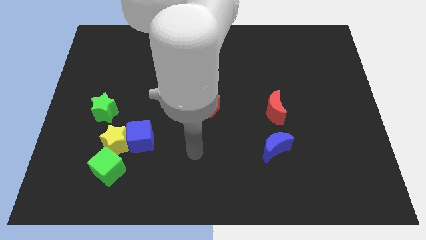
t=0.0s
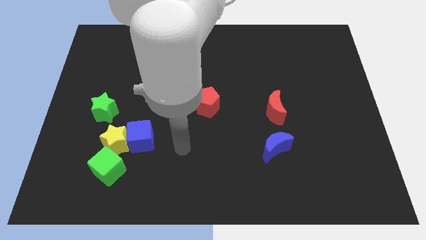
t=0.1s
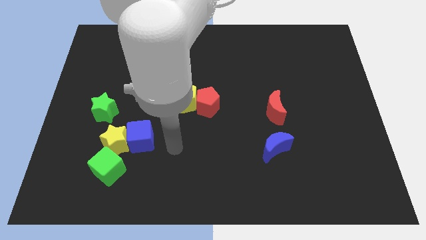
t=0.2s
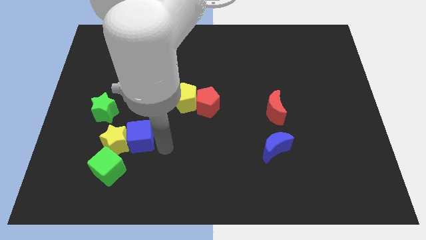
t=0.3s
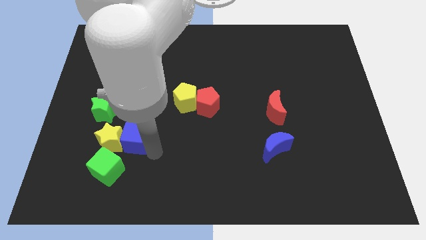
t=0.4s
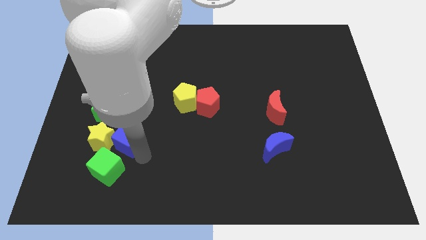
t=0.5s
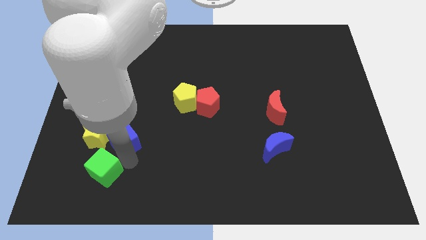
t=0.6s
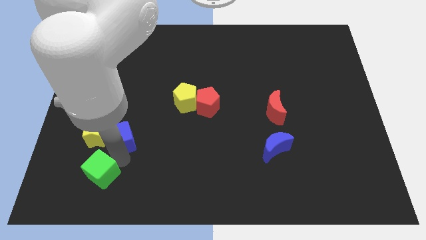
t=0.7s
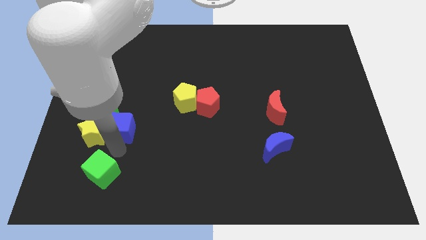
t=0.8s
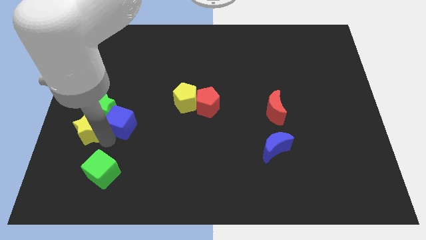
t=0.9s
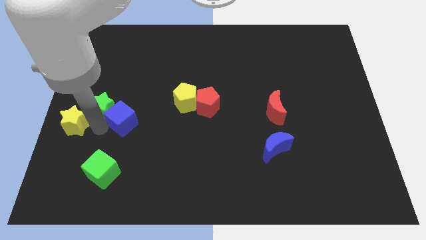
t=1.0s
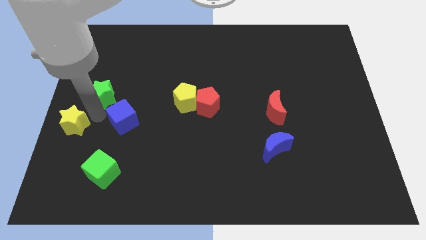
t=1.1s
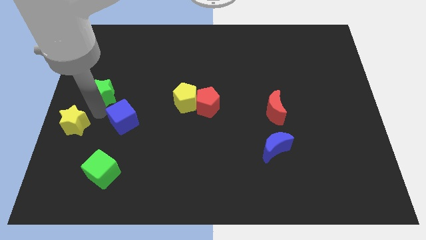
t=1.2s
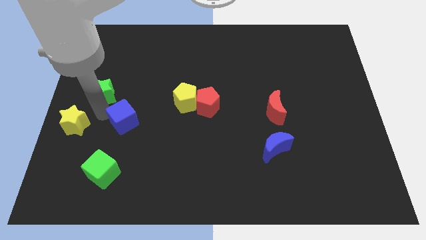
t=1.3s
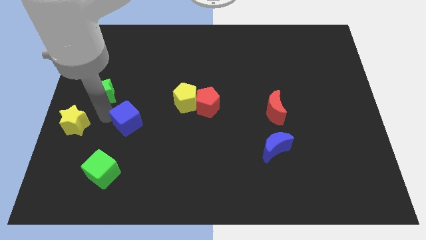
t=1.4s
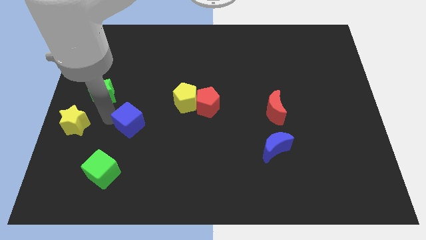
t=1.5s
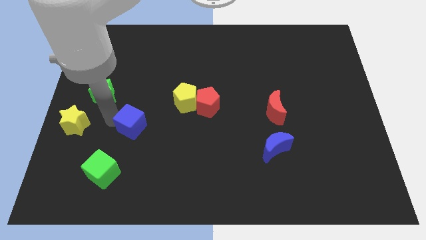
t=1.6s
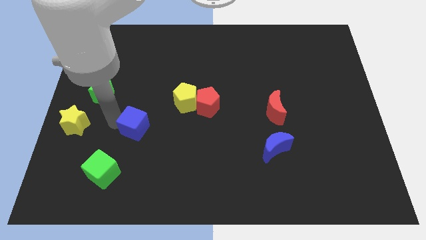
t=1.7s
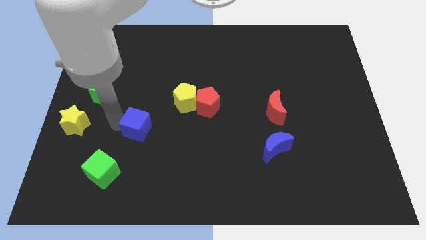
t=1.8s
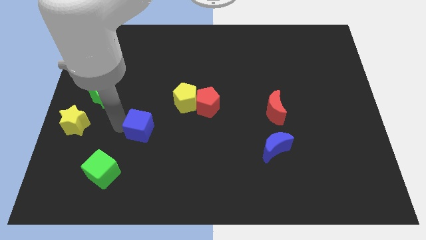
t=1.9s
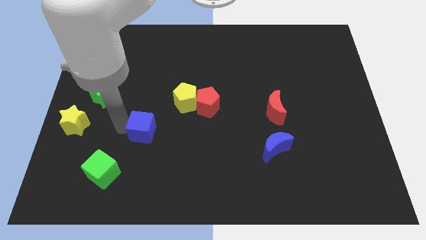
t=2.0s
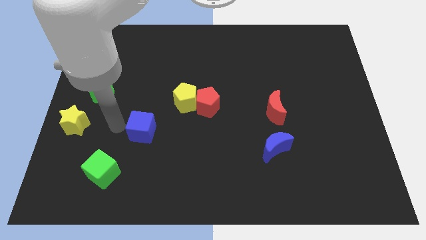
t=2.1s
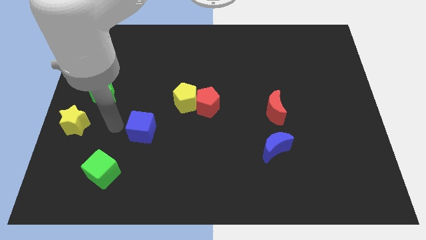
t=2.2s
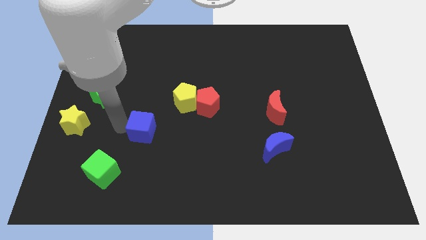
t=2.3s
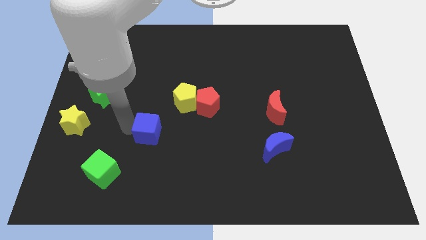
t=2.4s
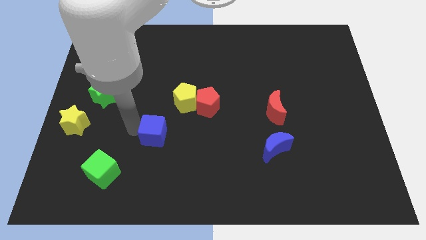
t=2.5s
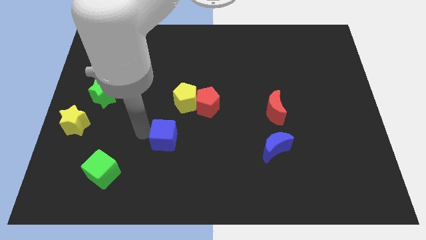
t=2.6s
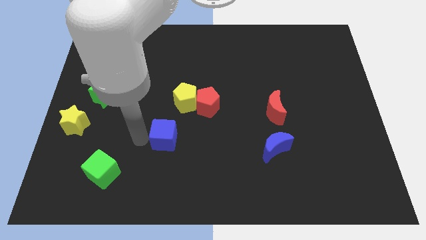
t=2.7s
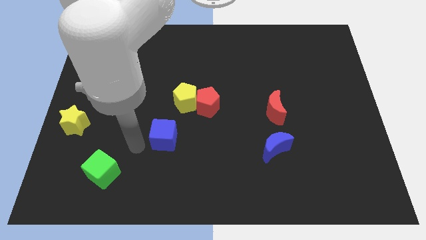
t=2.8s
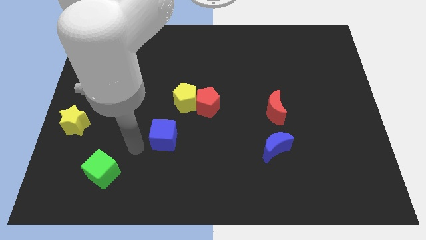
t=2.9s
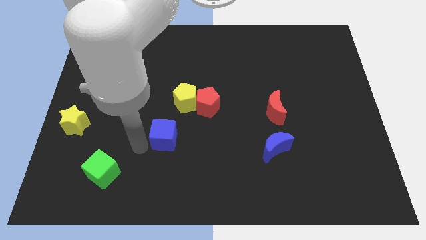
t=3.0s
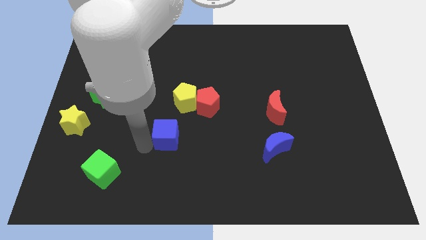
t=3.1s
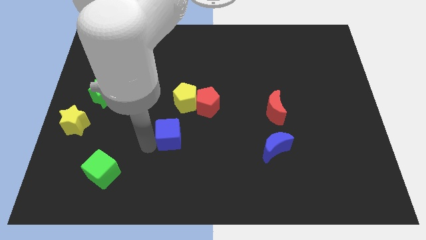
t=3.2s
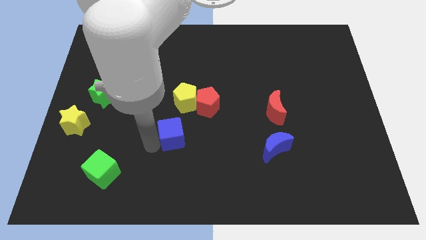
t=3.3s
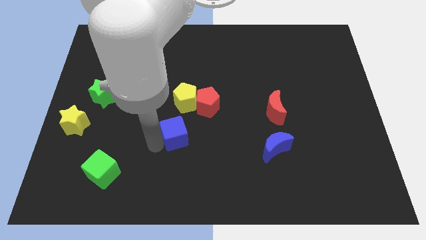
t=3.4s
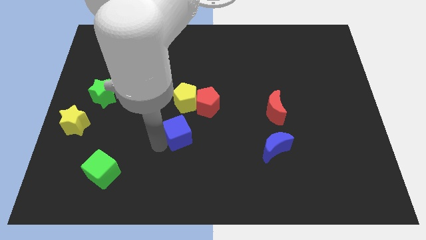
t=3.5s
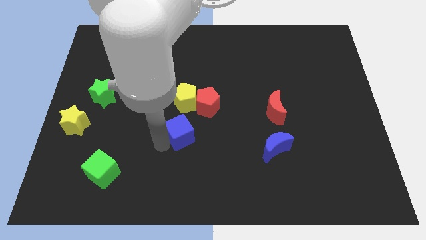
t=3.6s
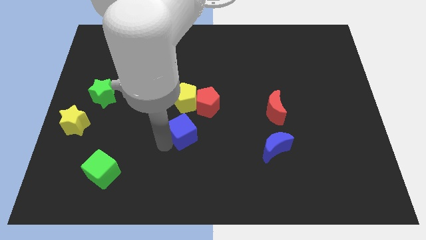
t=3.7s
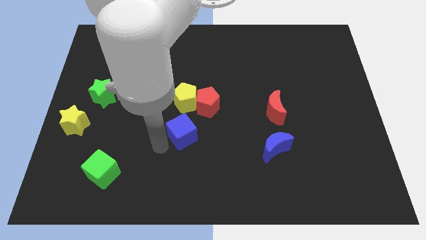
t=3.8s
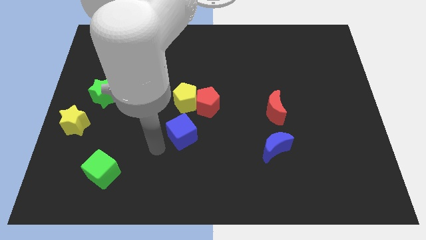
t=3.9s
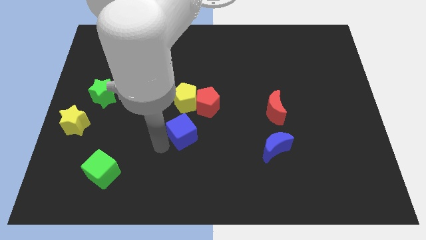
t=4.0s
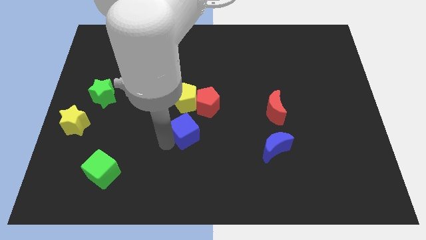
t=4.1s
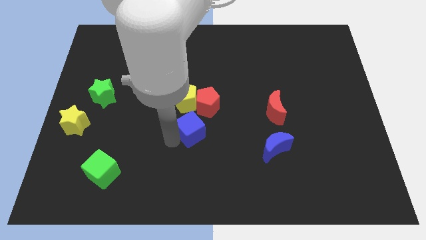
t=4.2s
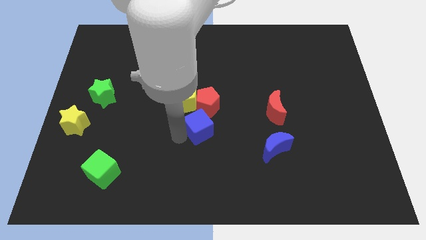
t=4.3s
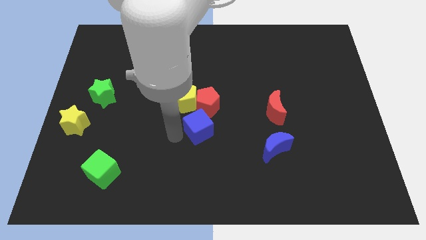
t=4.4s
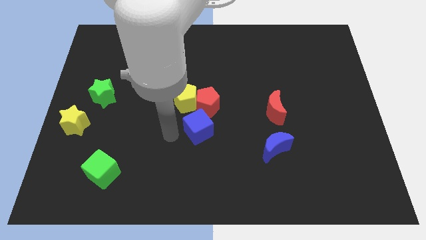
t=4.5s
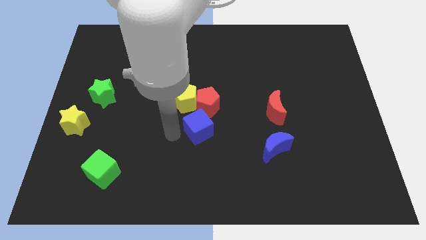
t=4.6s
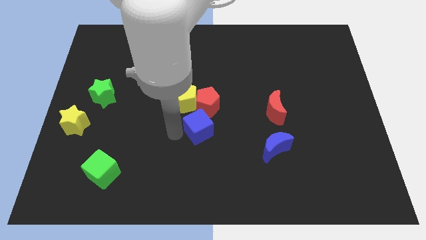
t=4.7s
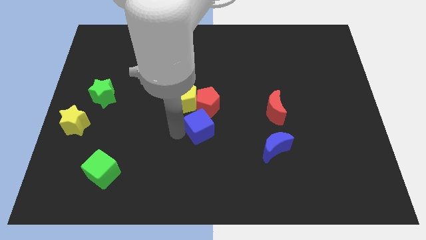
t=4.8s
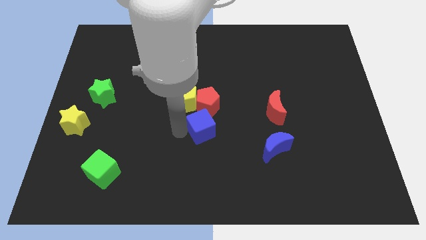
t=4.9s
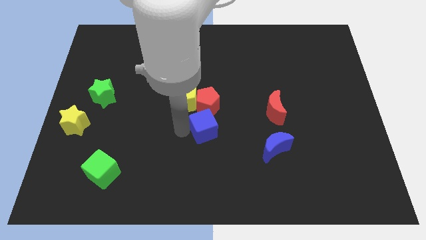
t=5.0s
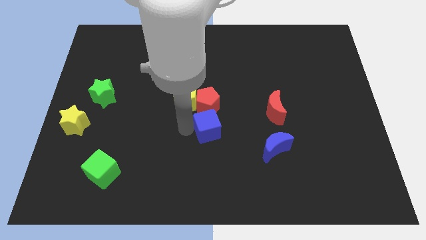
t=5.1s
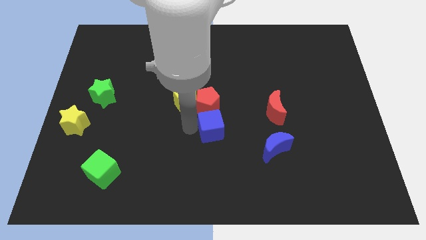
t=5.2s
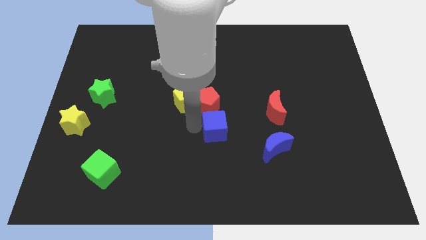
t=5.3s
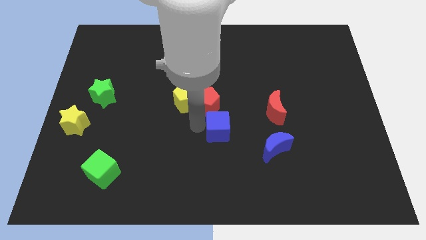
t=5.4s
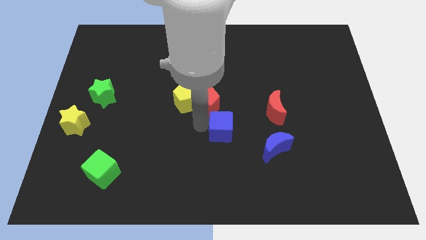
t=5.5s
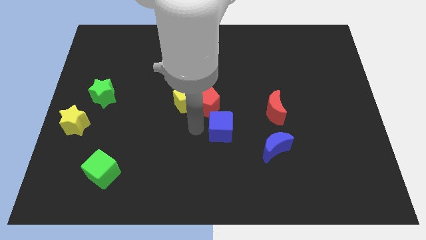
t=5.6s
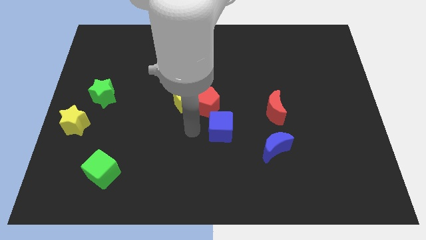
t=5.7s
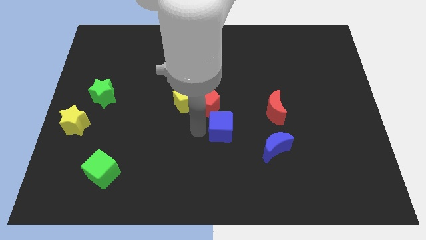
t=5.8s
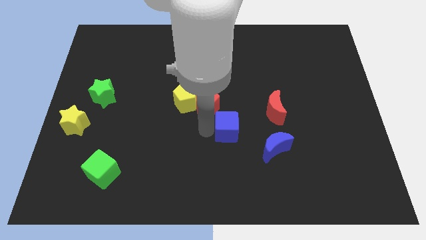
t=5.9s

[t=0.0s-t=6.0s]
put the blue cube to the top left of the blue moon

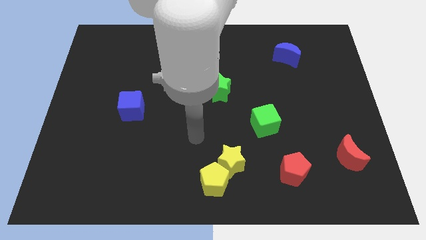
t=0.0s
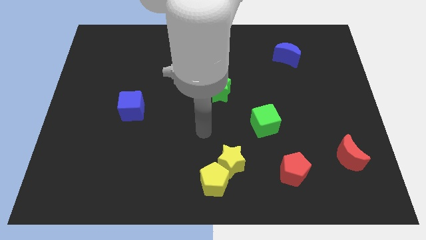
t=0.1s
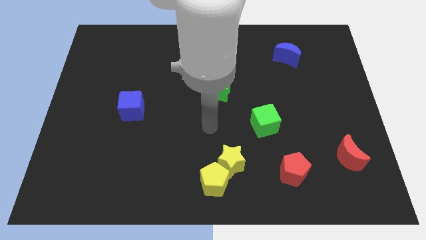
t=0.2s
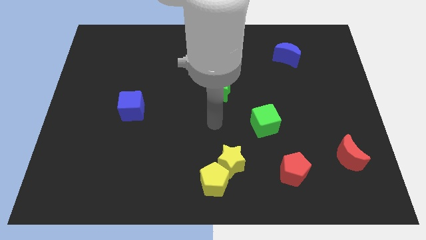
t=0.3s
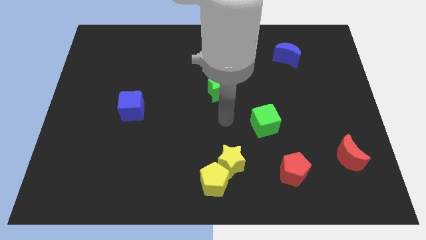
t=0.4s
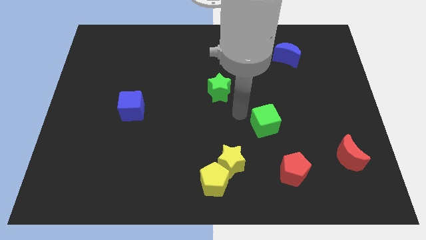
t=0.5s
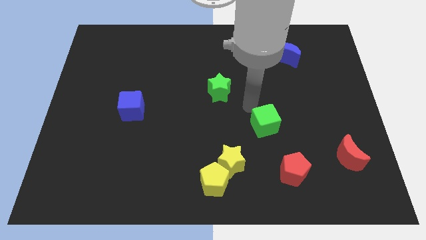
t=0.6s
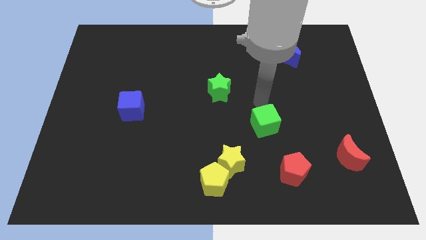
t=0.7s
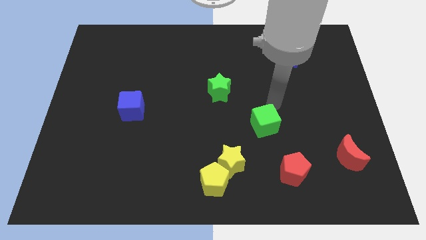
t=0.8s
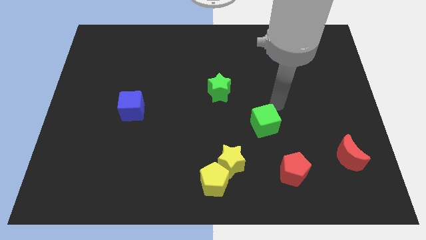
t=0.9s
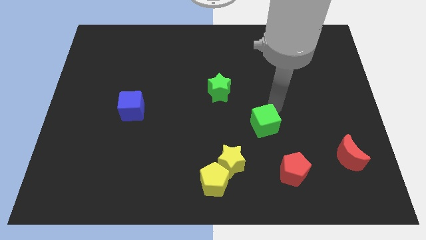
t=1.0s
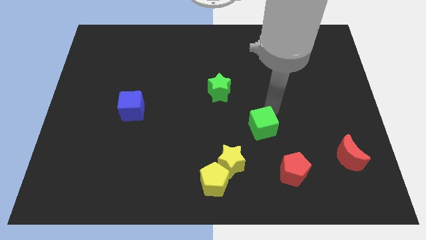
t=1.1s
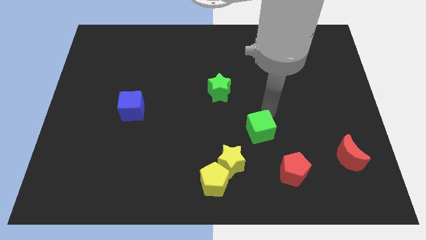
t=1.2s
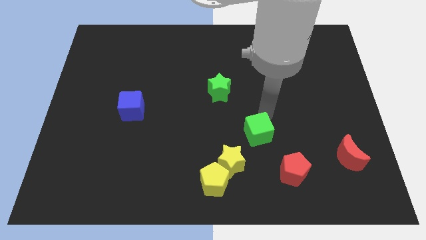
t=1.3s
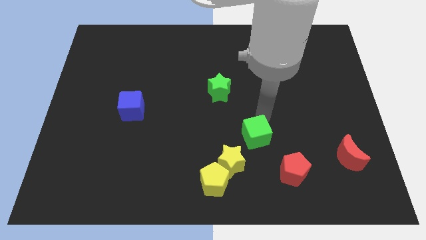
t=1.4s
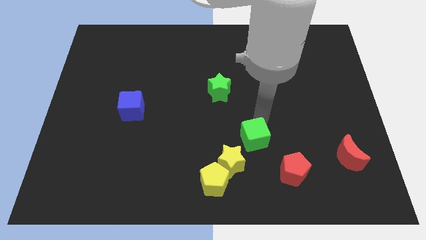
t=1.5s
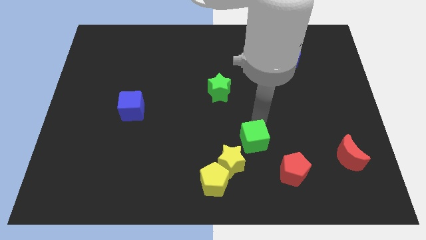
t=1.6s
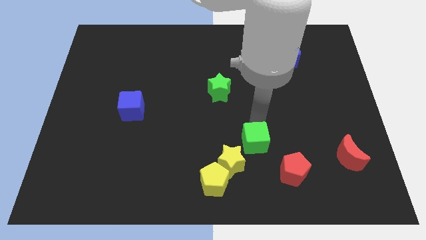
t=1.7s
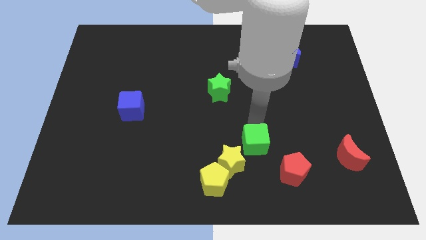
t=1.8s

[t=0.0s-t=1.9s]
push the green cube to the top right of the yellow pentagon
